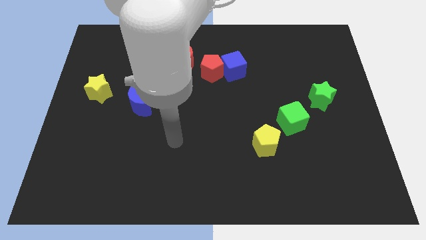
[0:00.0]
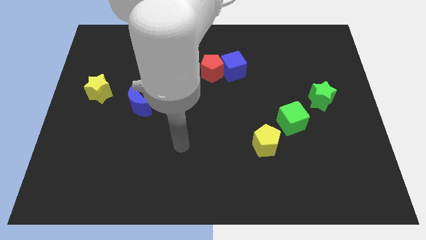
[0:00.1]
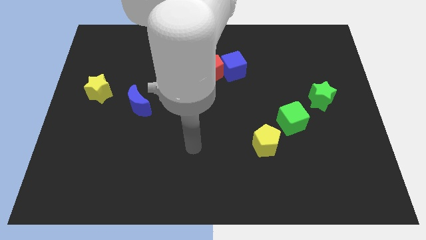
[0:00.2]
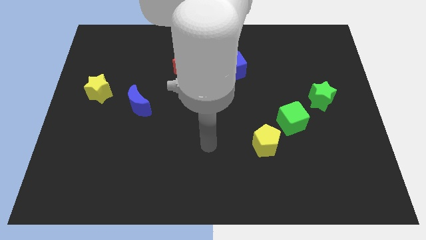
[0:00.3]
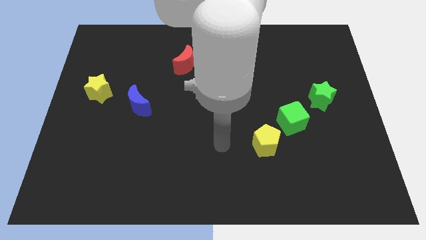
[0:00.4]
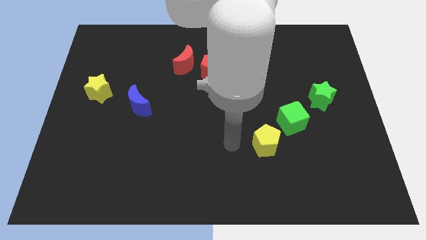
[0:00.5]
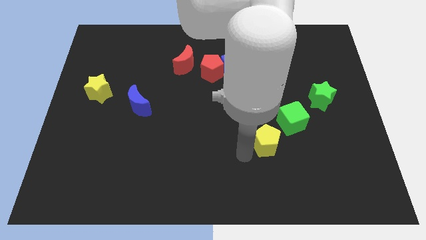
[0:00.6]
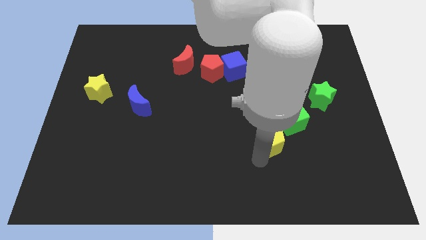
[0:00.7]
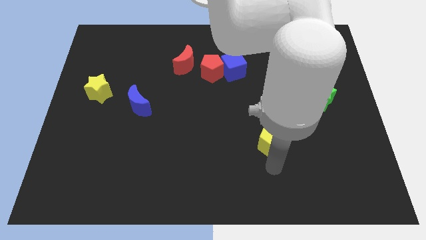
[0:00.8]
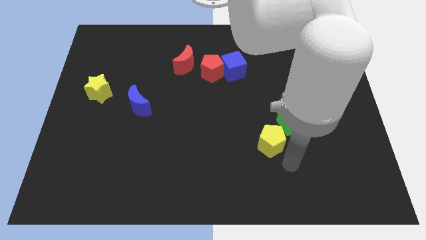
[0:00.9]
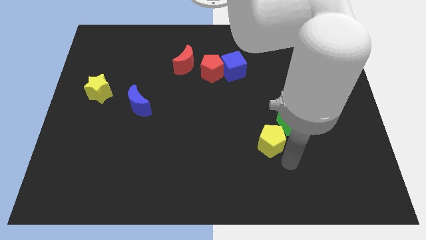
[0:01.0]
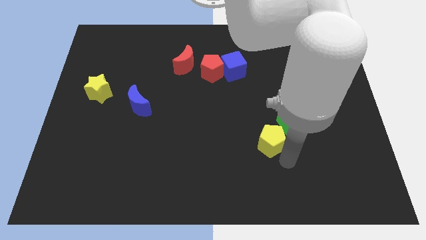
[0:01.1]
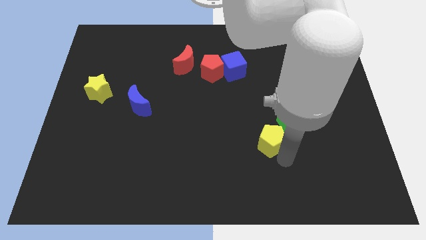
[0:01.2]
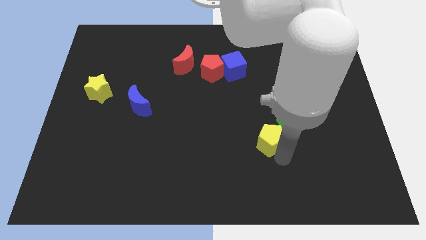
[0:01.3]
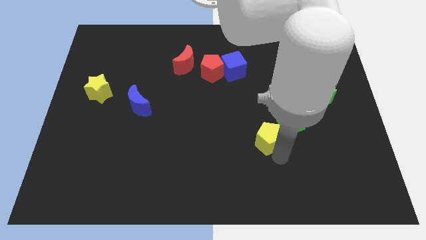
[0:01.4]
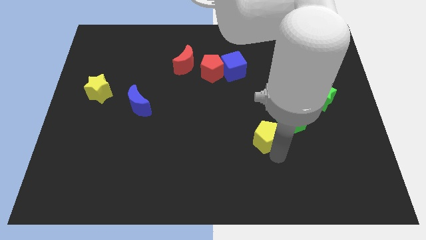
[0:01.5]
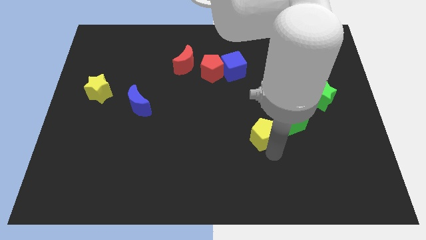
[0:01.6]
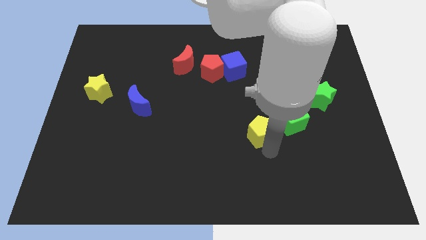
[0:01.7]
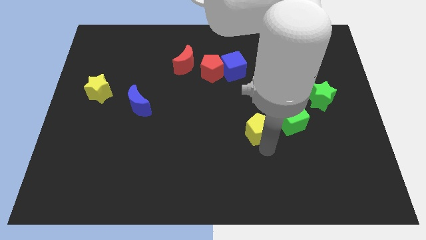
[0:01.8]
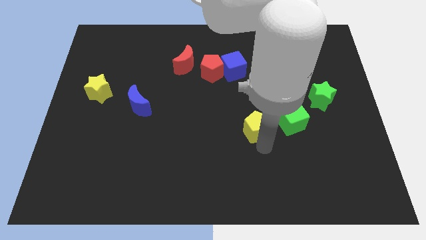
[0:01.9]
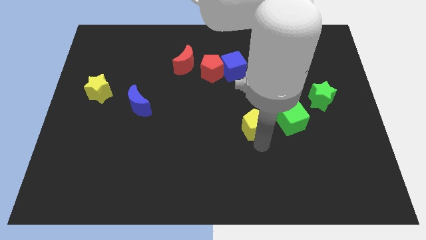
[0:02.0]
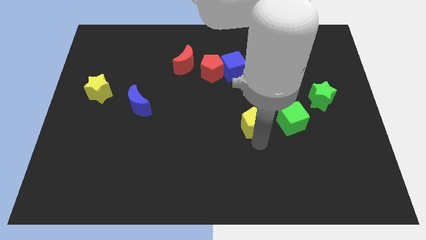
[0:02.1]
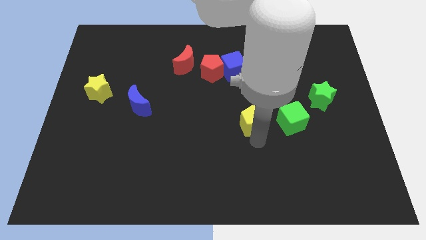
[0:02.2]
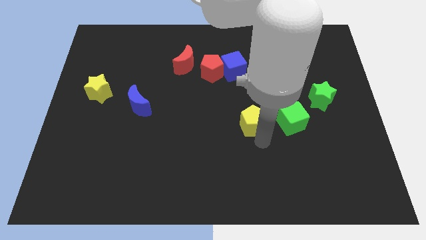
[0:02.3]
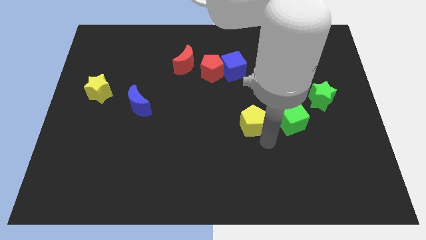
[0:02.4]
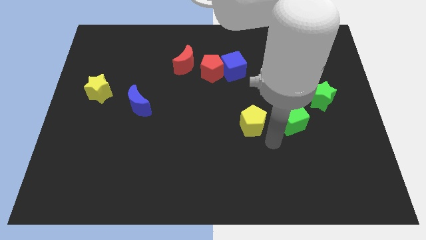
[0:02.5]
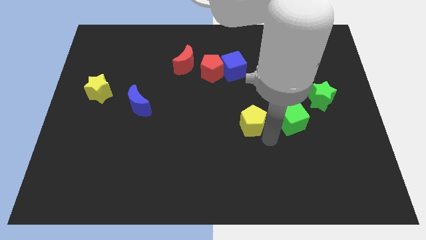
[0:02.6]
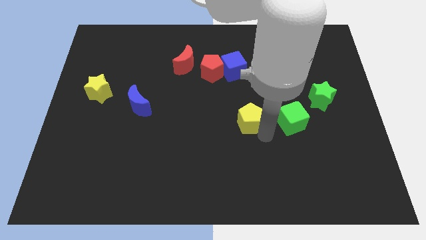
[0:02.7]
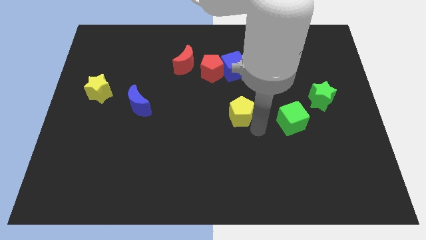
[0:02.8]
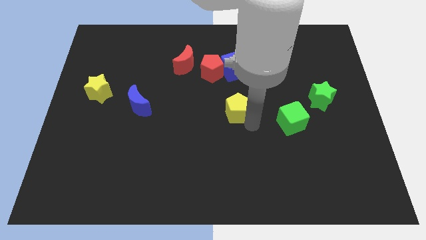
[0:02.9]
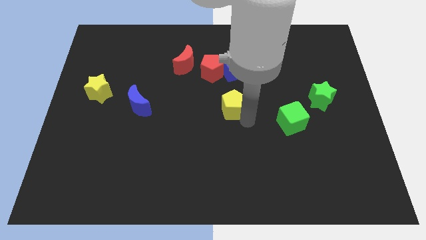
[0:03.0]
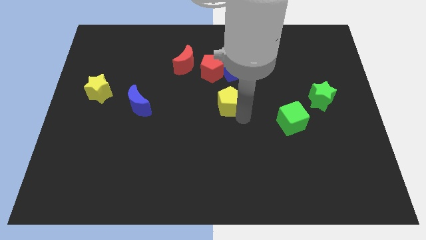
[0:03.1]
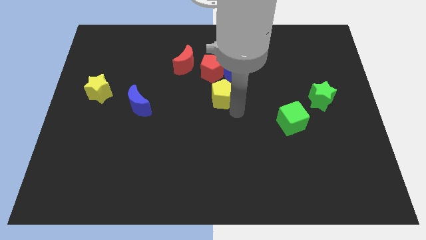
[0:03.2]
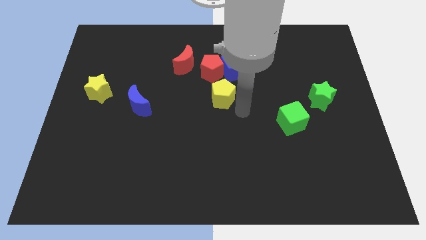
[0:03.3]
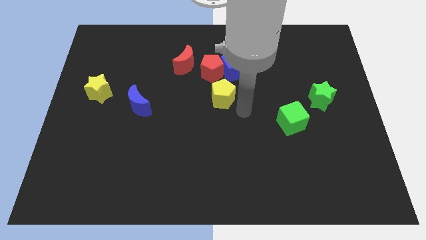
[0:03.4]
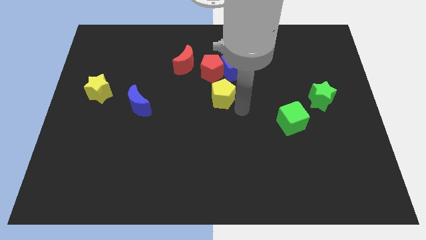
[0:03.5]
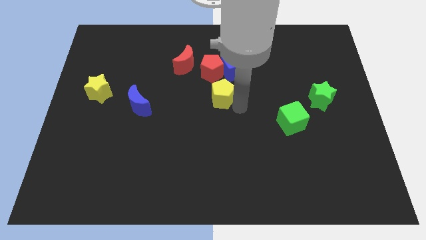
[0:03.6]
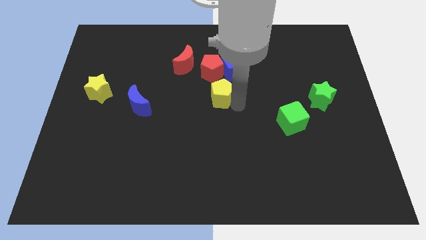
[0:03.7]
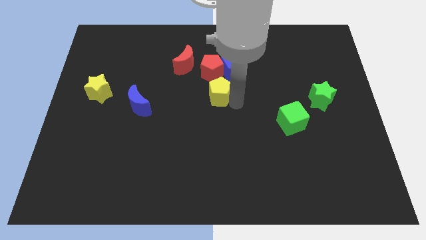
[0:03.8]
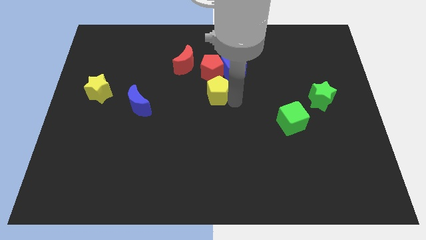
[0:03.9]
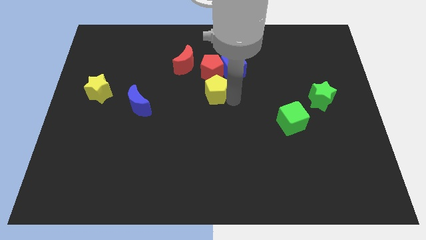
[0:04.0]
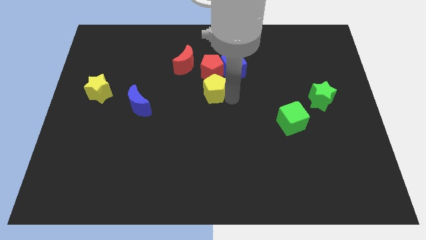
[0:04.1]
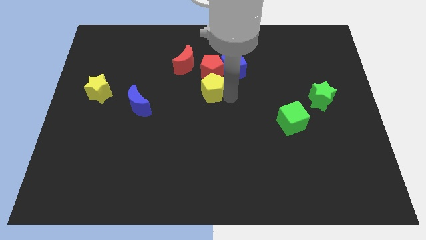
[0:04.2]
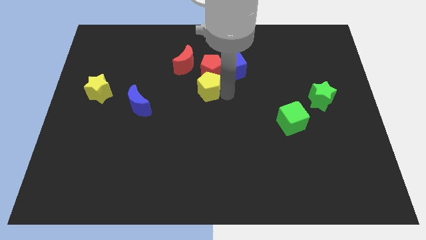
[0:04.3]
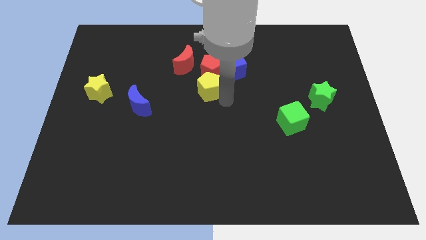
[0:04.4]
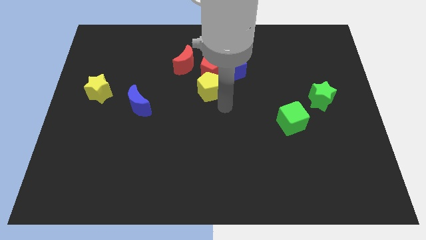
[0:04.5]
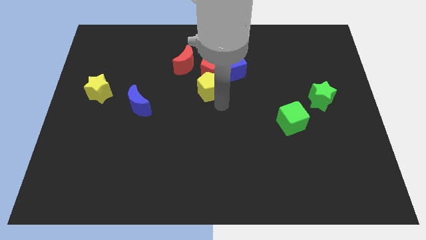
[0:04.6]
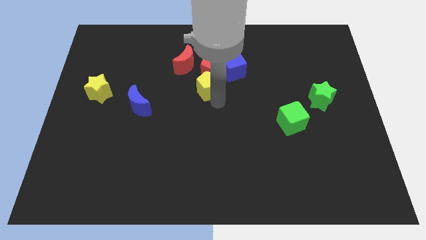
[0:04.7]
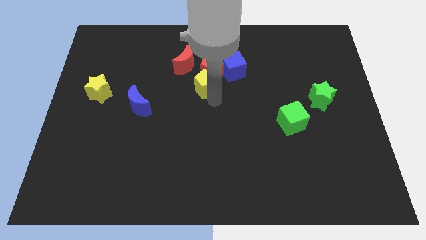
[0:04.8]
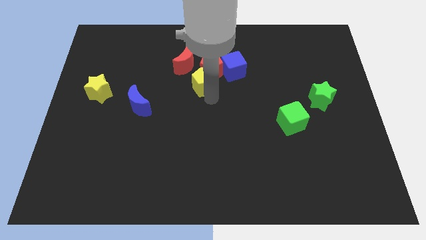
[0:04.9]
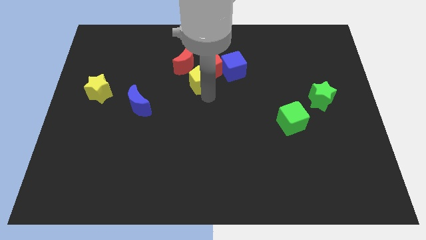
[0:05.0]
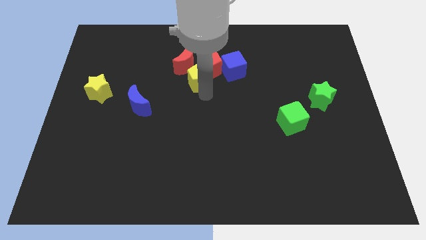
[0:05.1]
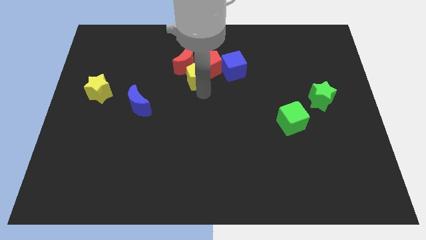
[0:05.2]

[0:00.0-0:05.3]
push the yellow pentagon next to the red moon

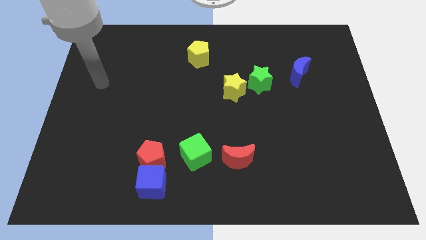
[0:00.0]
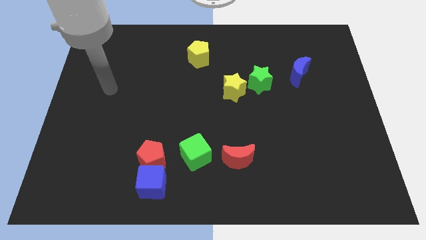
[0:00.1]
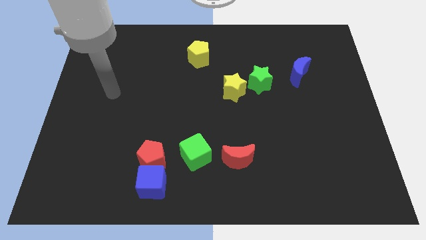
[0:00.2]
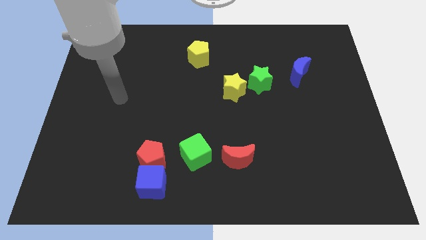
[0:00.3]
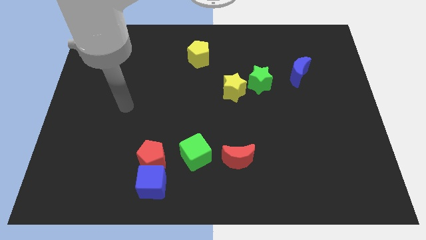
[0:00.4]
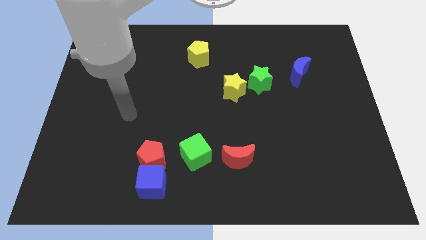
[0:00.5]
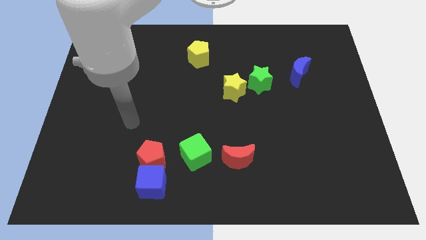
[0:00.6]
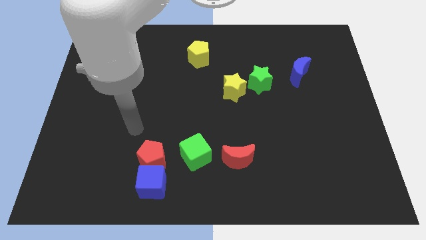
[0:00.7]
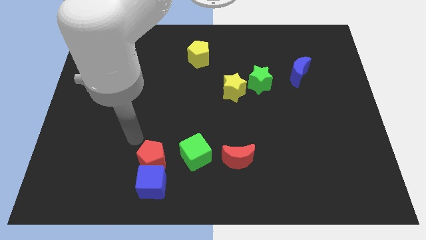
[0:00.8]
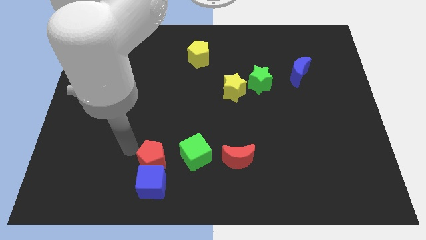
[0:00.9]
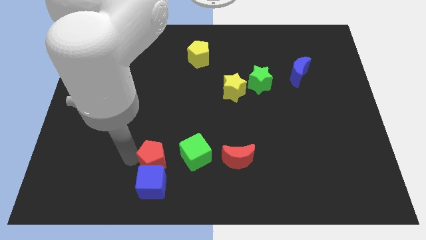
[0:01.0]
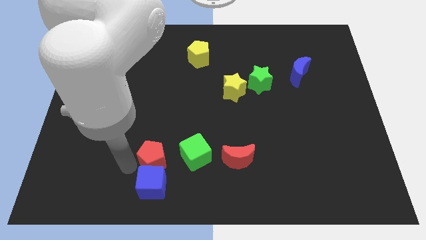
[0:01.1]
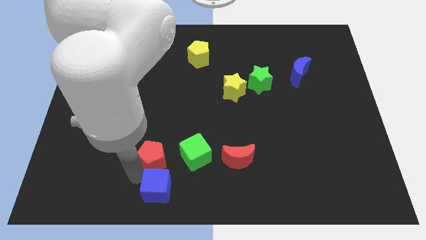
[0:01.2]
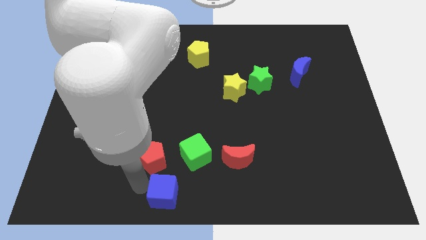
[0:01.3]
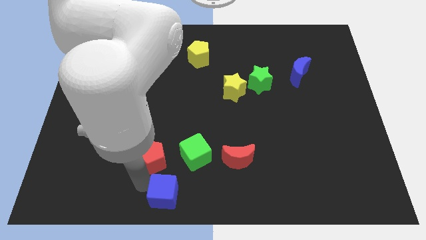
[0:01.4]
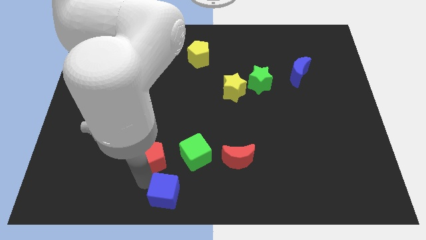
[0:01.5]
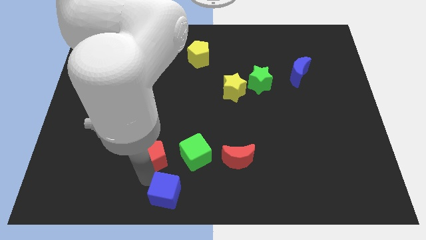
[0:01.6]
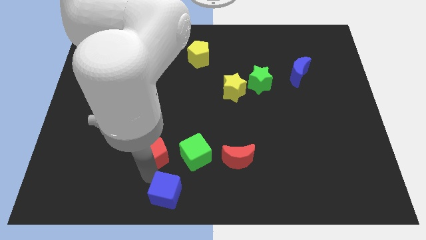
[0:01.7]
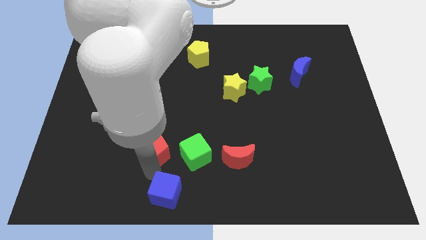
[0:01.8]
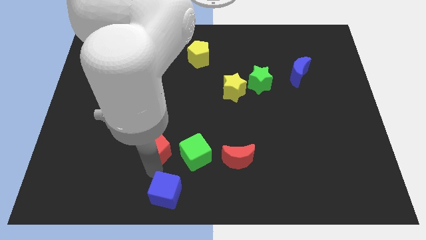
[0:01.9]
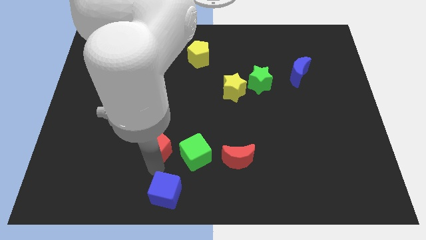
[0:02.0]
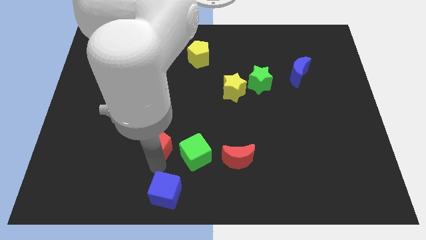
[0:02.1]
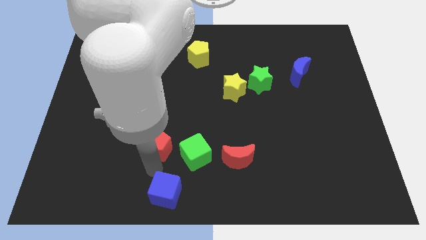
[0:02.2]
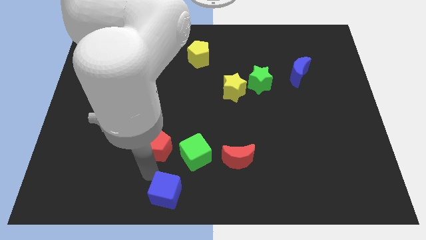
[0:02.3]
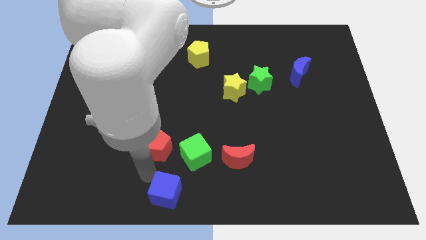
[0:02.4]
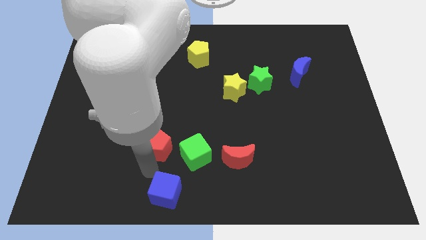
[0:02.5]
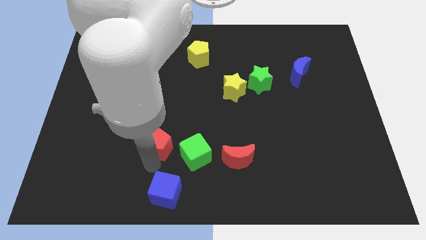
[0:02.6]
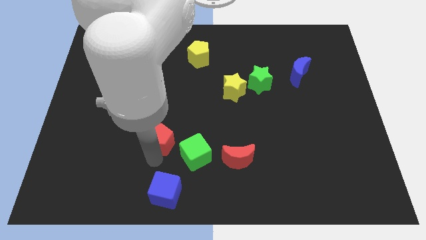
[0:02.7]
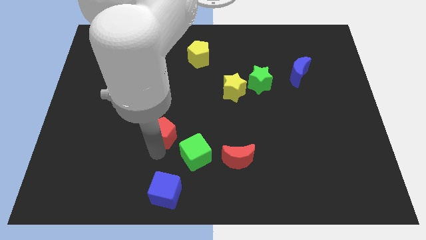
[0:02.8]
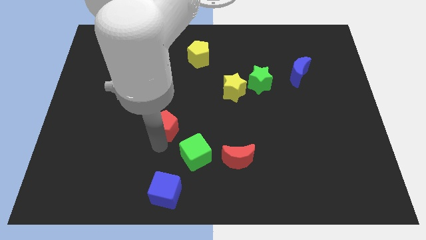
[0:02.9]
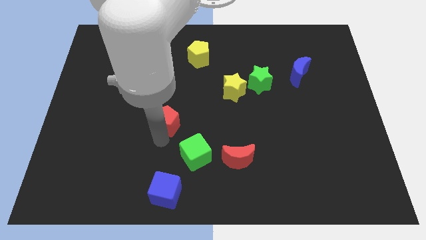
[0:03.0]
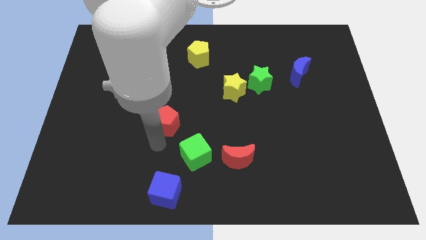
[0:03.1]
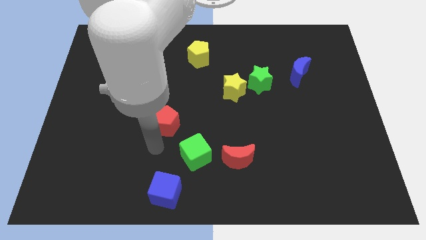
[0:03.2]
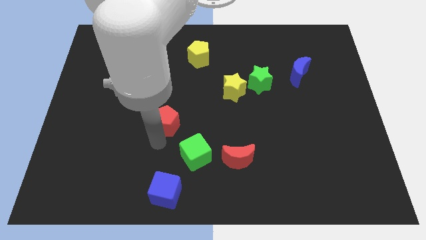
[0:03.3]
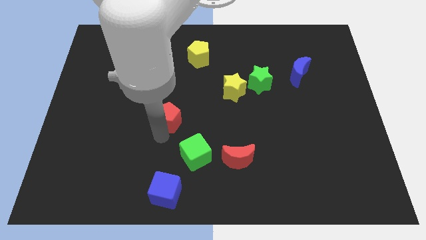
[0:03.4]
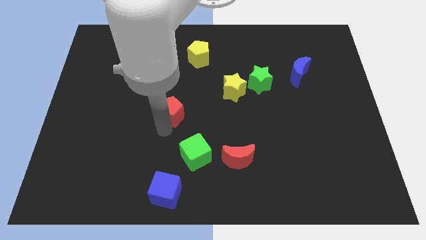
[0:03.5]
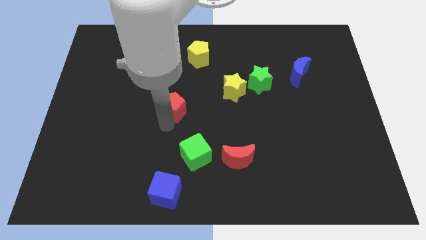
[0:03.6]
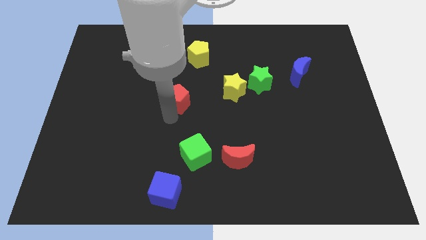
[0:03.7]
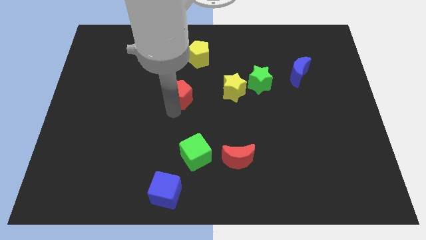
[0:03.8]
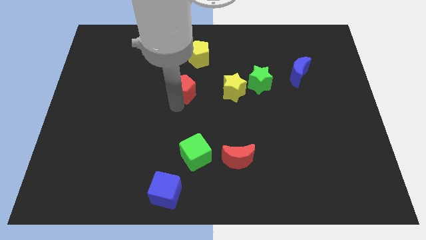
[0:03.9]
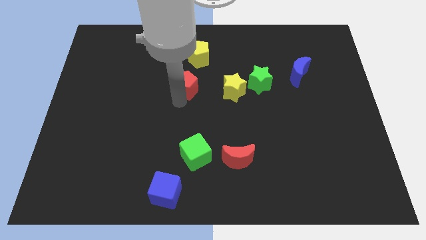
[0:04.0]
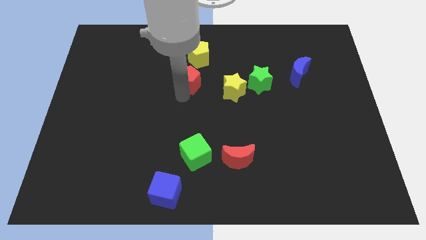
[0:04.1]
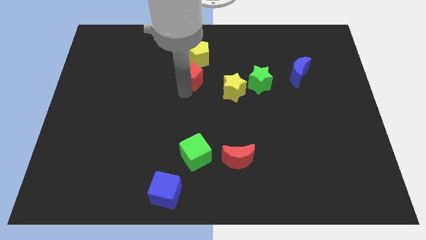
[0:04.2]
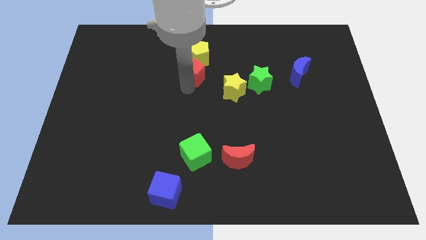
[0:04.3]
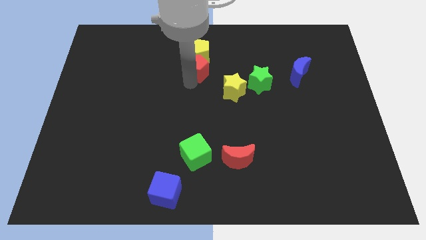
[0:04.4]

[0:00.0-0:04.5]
put the red pentagon next to the yellow pentagon
